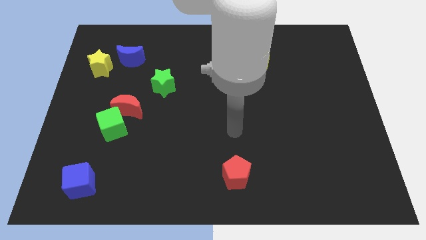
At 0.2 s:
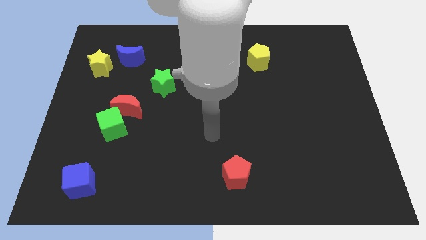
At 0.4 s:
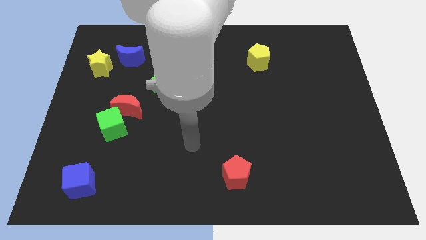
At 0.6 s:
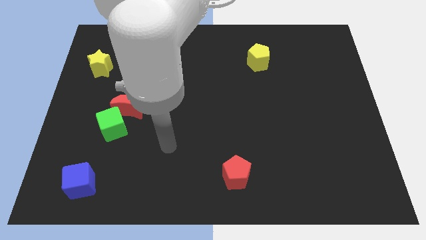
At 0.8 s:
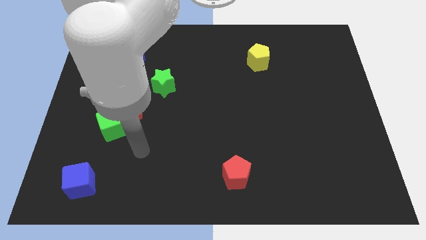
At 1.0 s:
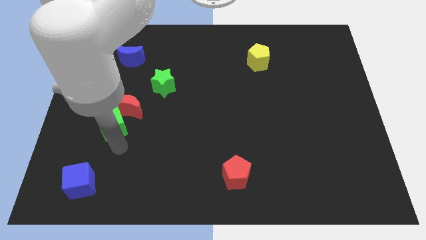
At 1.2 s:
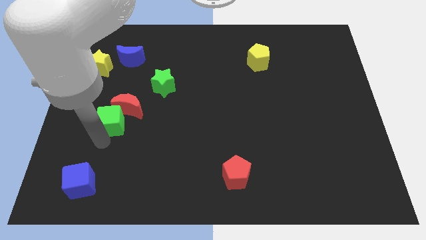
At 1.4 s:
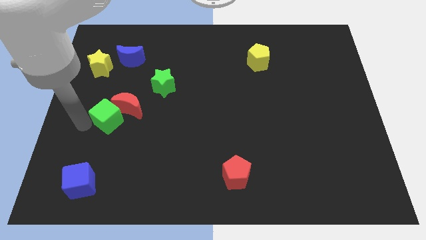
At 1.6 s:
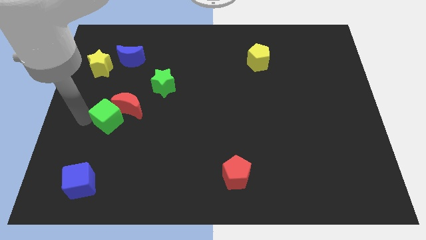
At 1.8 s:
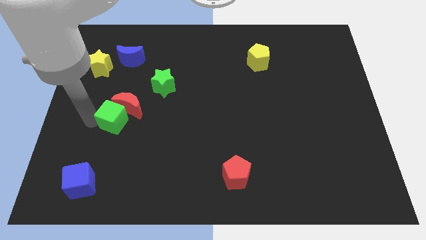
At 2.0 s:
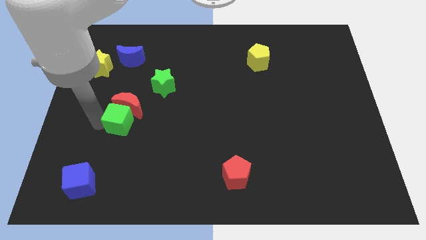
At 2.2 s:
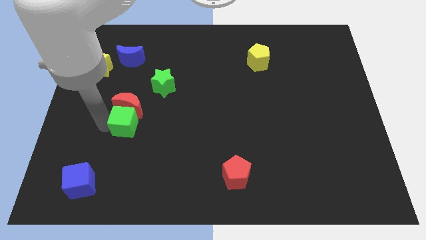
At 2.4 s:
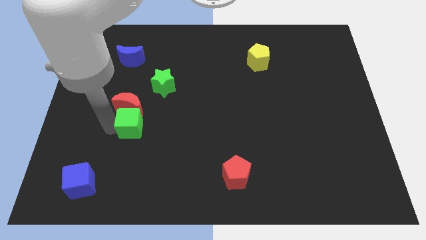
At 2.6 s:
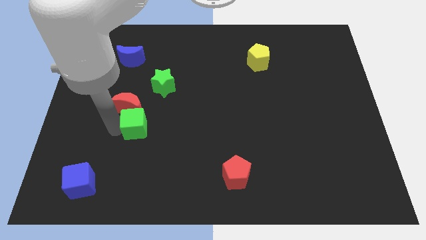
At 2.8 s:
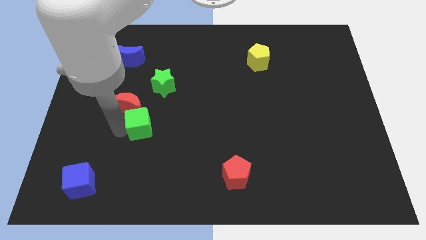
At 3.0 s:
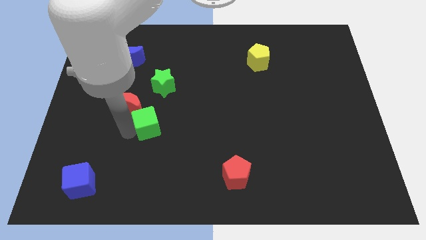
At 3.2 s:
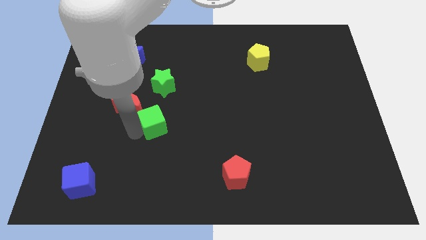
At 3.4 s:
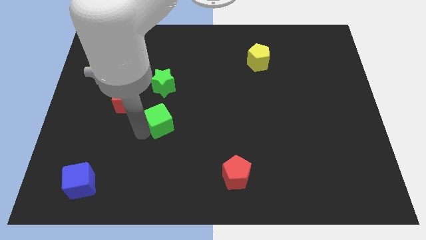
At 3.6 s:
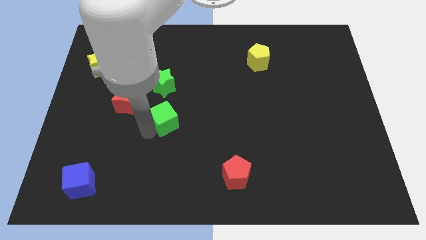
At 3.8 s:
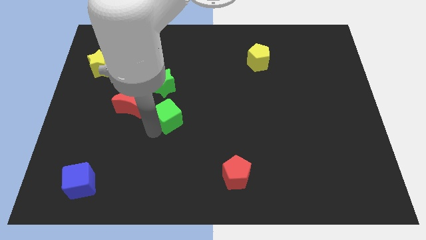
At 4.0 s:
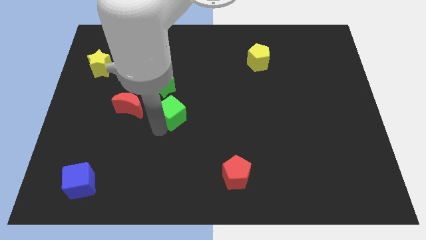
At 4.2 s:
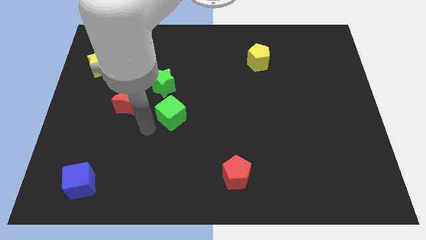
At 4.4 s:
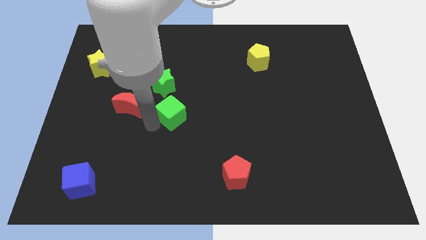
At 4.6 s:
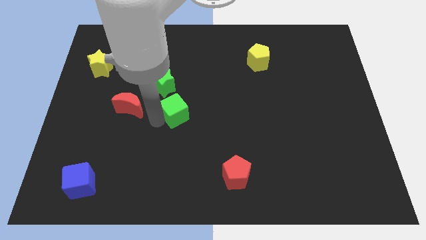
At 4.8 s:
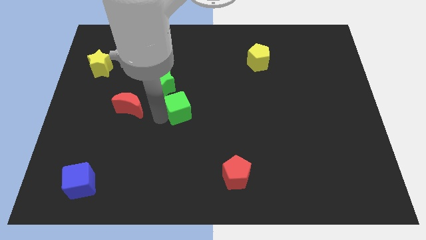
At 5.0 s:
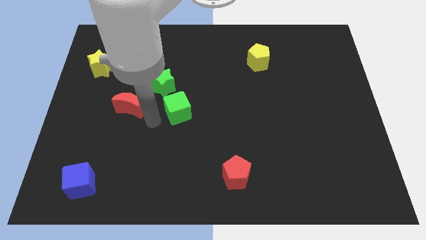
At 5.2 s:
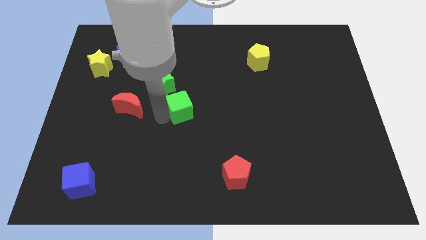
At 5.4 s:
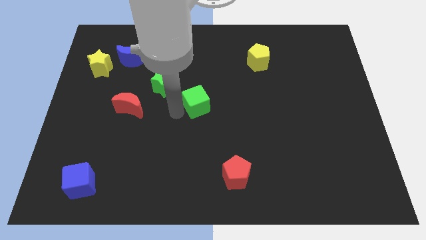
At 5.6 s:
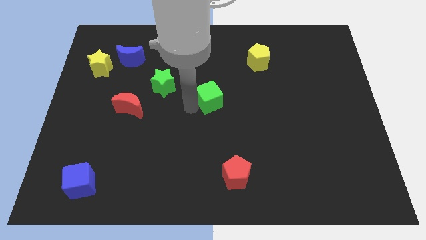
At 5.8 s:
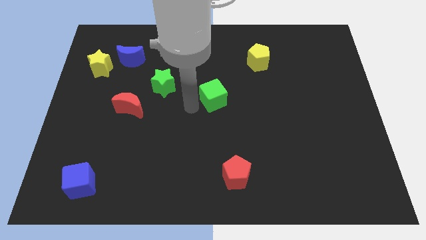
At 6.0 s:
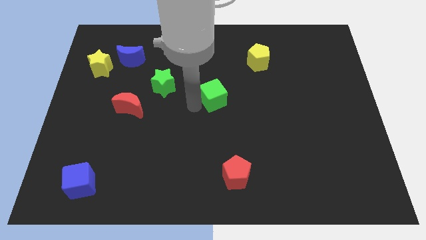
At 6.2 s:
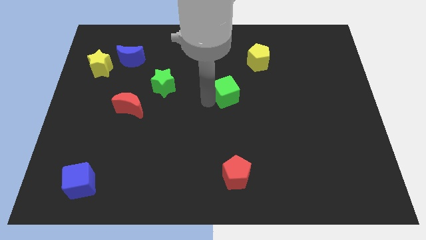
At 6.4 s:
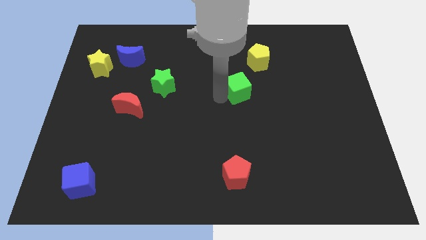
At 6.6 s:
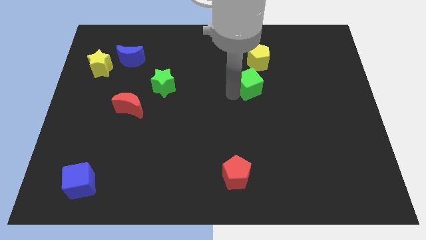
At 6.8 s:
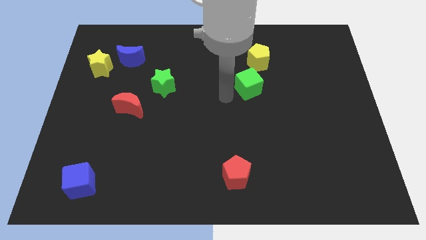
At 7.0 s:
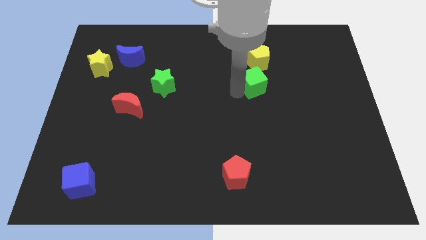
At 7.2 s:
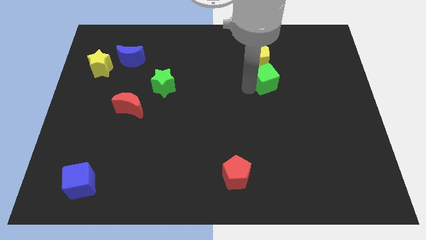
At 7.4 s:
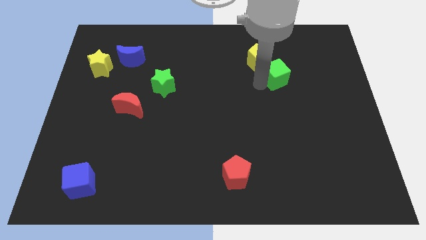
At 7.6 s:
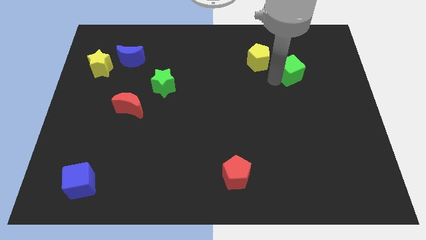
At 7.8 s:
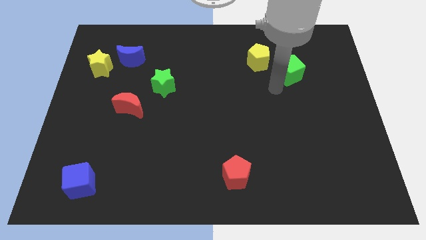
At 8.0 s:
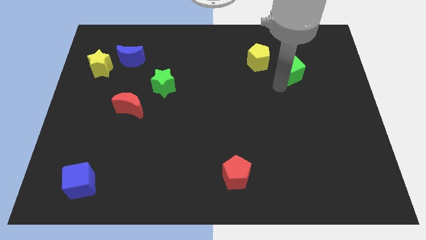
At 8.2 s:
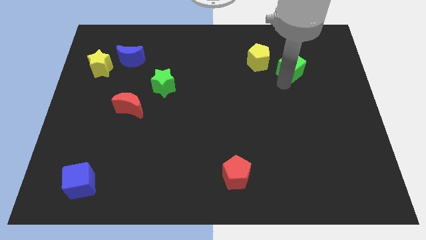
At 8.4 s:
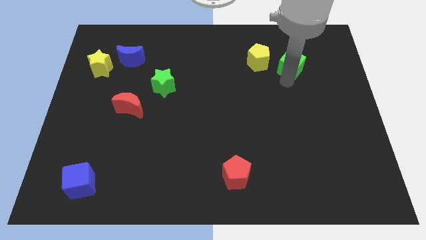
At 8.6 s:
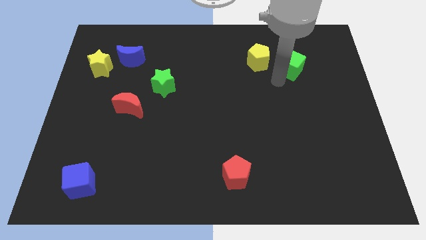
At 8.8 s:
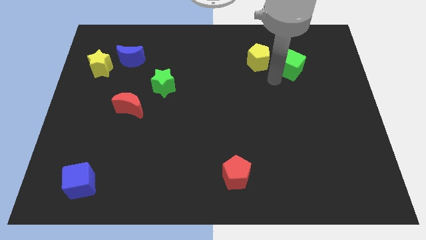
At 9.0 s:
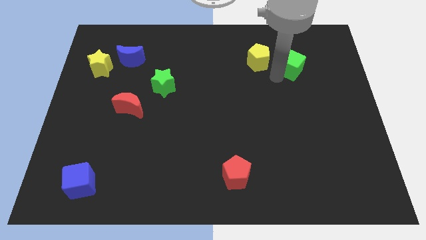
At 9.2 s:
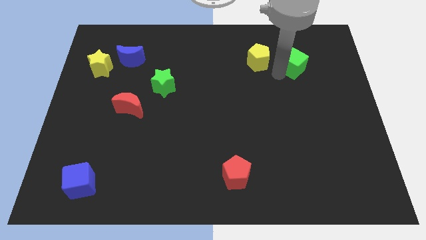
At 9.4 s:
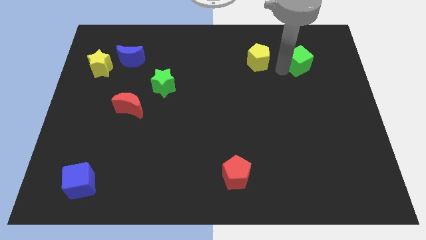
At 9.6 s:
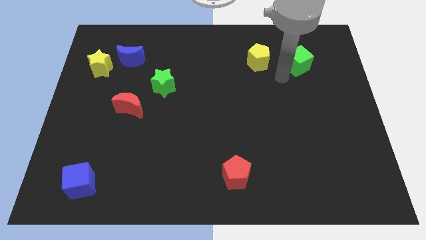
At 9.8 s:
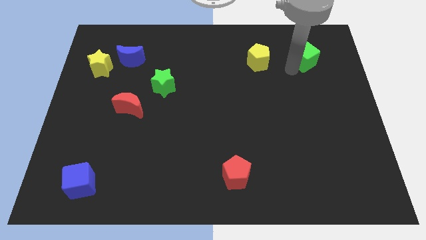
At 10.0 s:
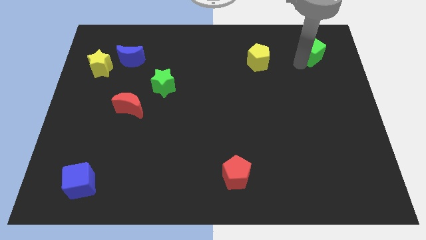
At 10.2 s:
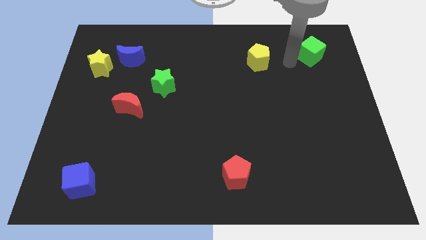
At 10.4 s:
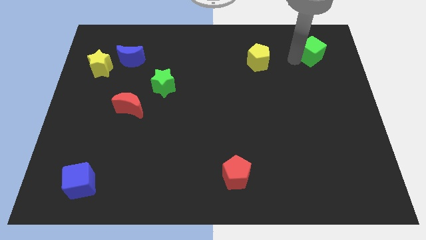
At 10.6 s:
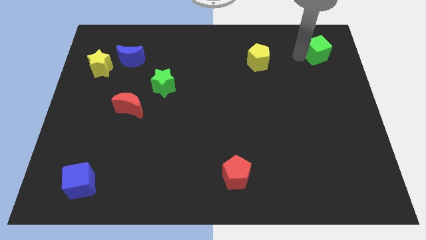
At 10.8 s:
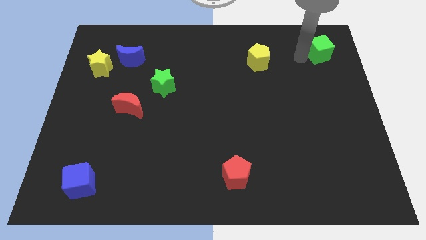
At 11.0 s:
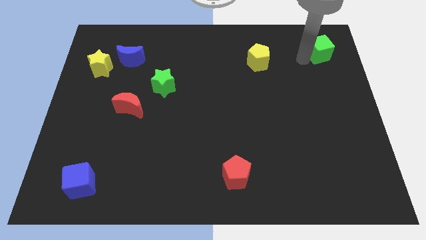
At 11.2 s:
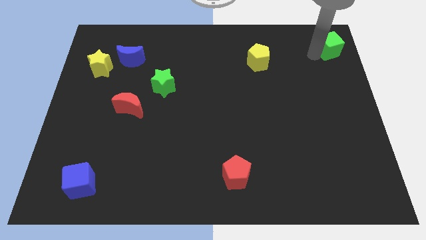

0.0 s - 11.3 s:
move the green cube to the top right
